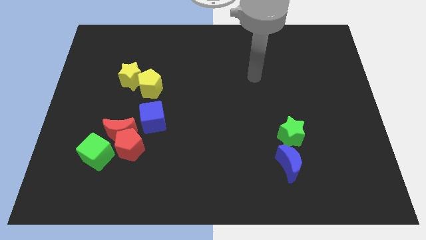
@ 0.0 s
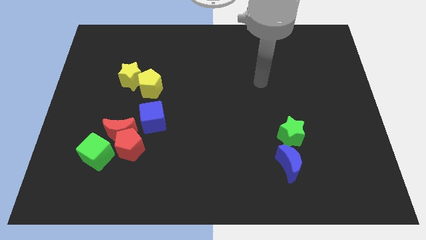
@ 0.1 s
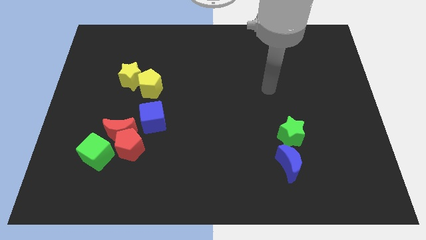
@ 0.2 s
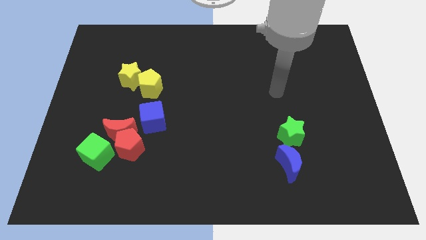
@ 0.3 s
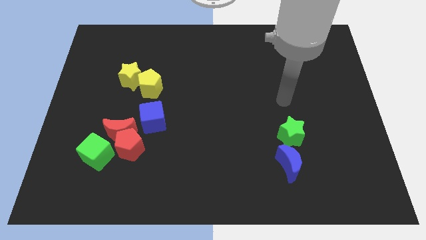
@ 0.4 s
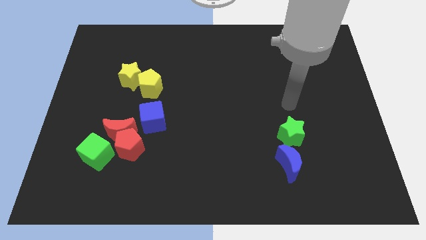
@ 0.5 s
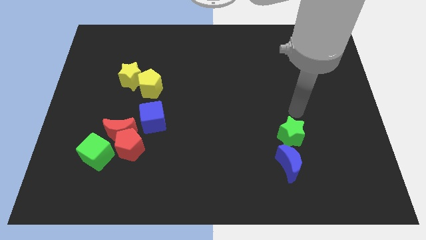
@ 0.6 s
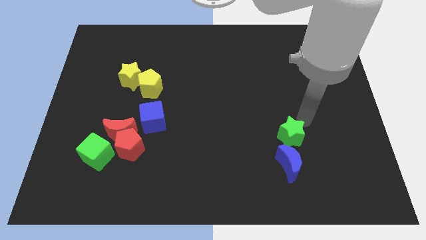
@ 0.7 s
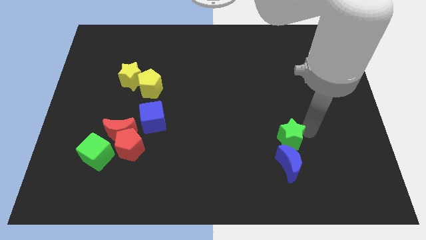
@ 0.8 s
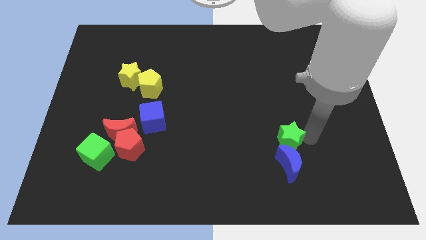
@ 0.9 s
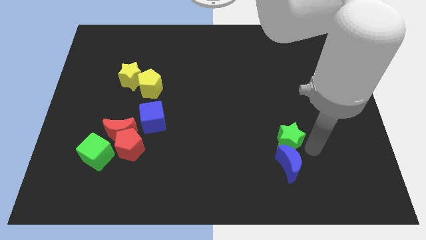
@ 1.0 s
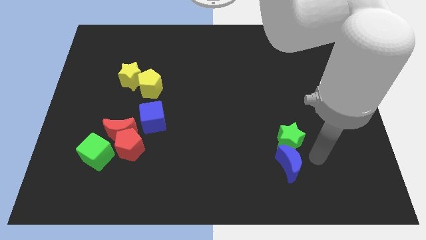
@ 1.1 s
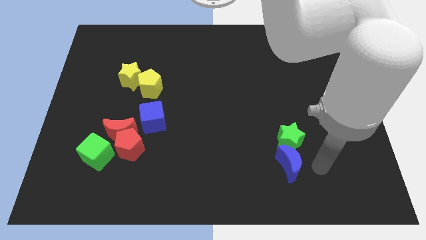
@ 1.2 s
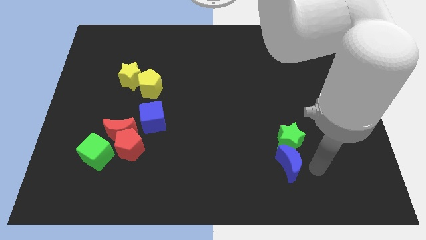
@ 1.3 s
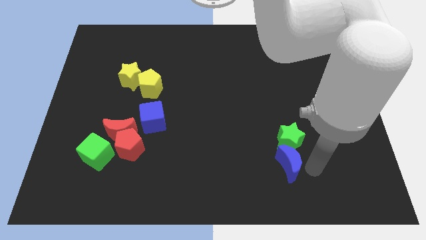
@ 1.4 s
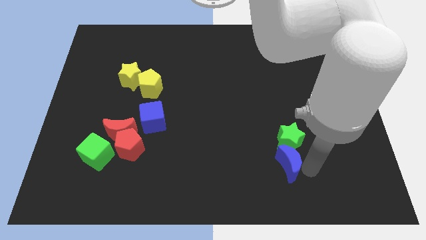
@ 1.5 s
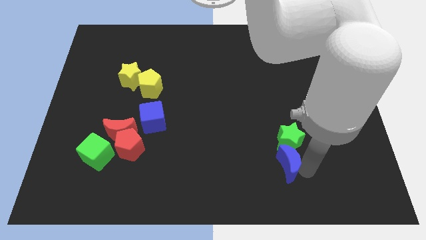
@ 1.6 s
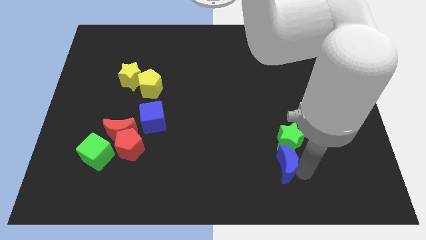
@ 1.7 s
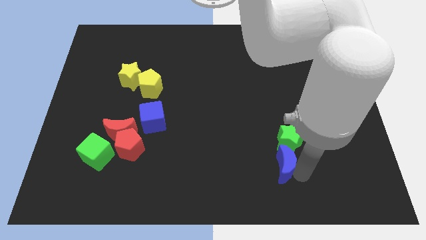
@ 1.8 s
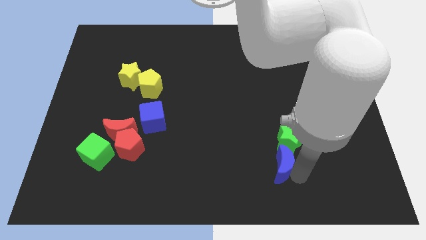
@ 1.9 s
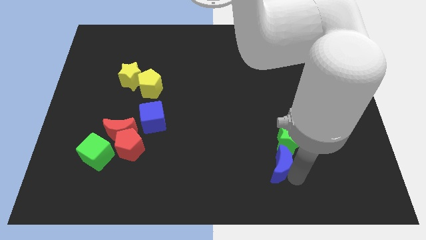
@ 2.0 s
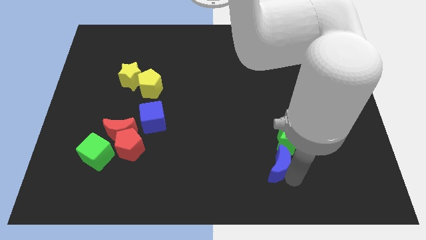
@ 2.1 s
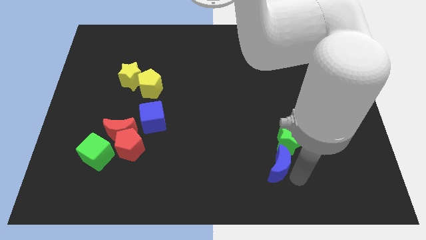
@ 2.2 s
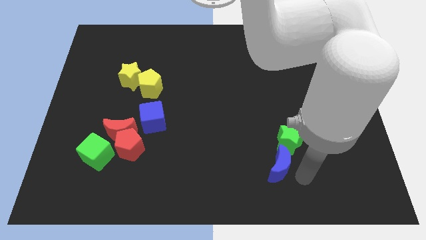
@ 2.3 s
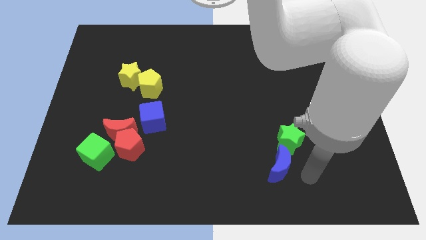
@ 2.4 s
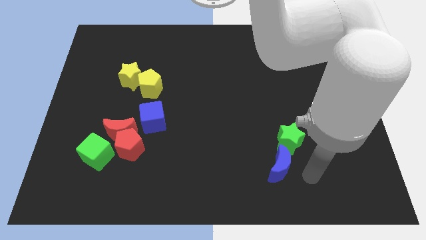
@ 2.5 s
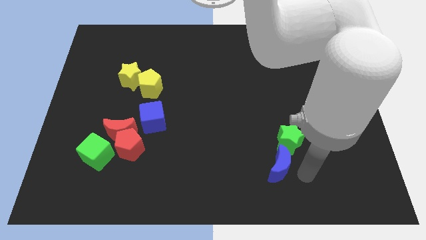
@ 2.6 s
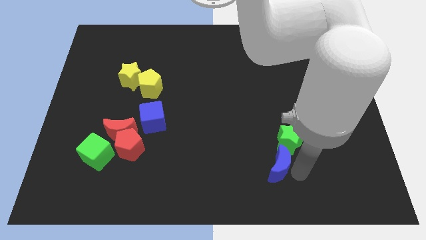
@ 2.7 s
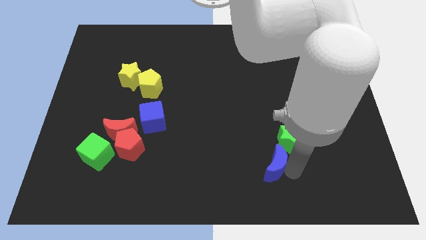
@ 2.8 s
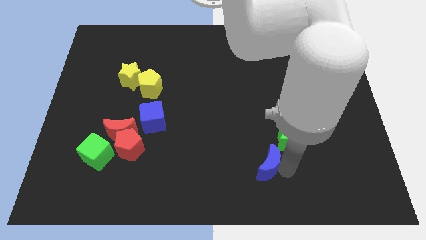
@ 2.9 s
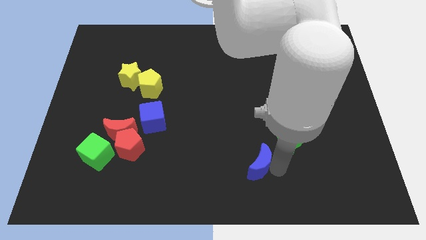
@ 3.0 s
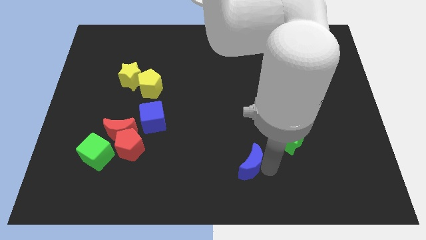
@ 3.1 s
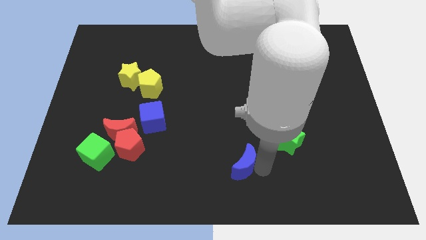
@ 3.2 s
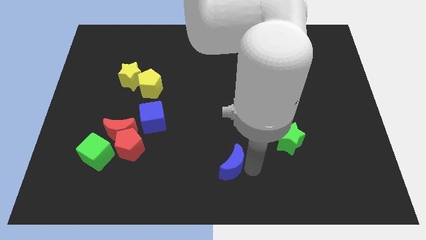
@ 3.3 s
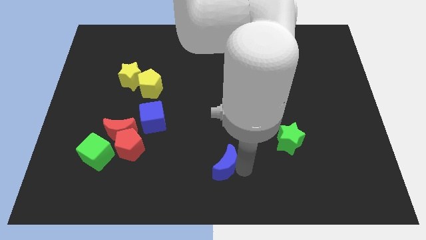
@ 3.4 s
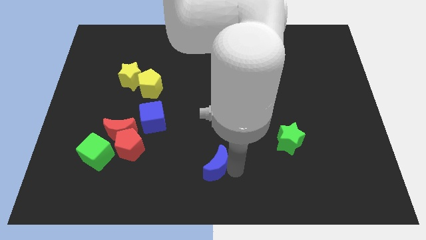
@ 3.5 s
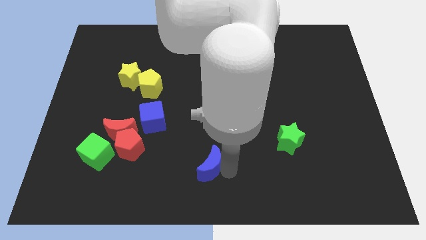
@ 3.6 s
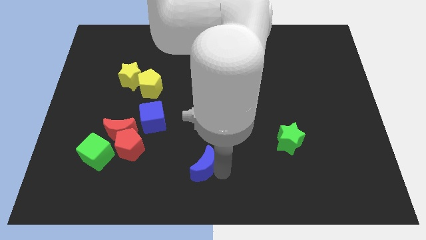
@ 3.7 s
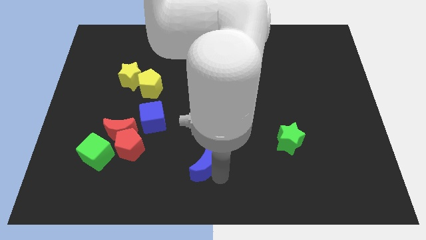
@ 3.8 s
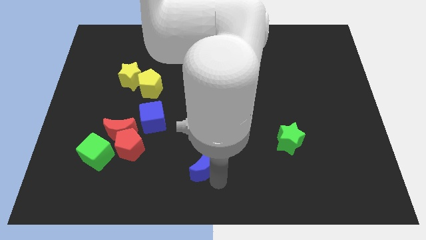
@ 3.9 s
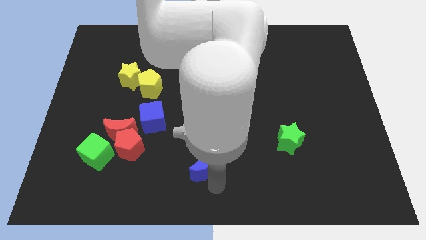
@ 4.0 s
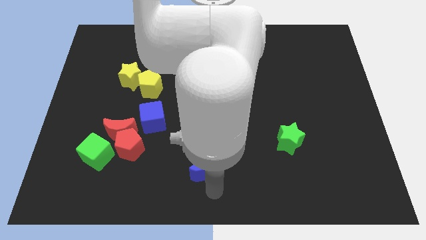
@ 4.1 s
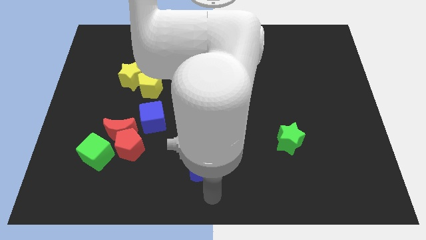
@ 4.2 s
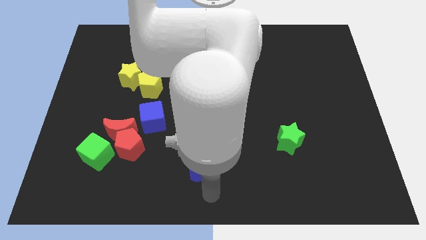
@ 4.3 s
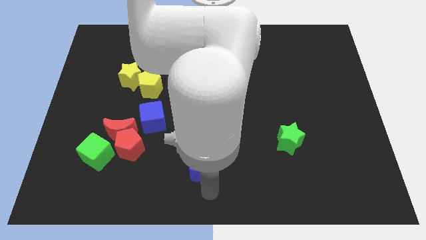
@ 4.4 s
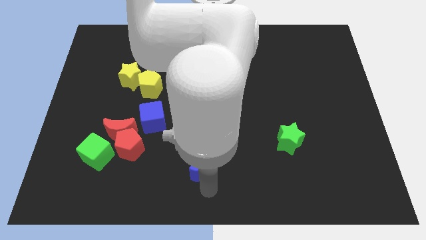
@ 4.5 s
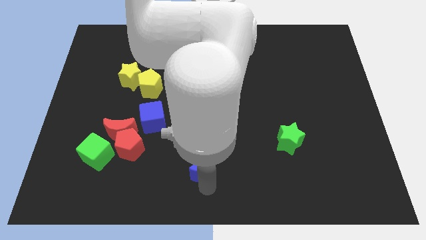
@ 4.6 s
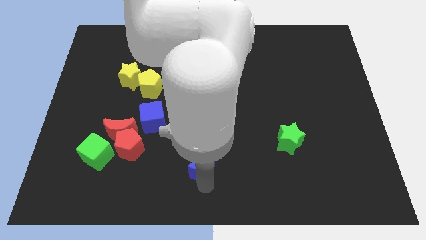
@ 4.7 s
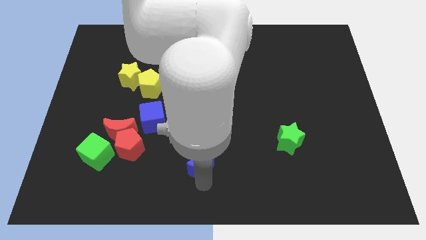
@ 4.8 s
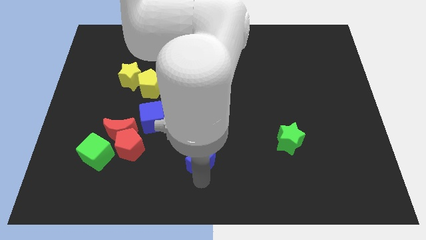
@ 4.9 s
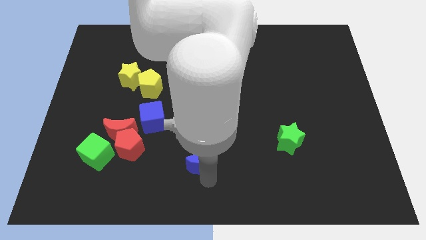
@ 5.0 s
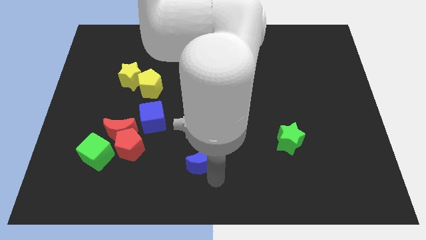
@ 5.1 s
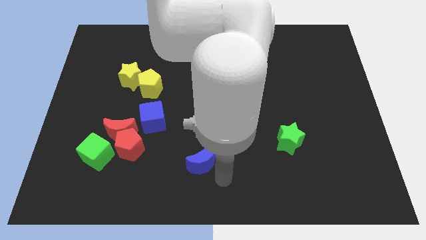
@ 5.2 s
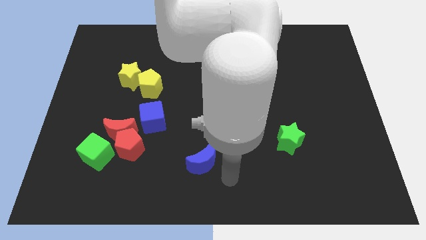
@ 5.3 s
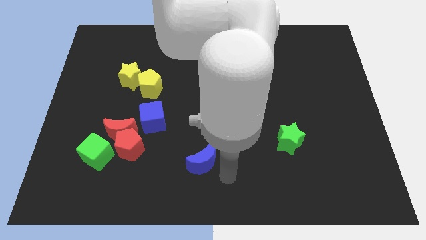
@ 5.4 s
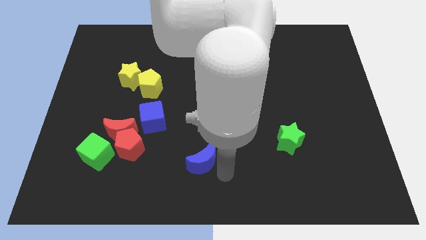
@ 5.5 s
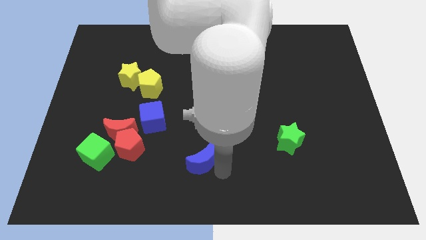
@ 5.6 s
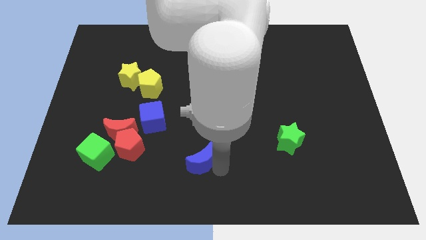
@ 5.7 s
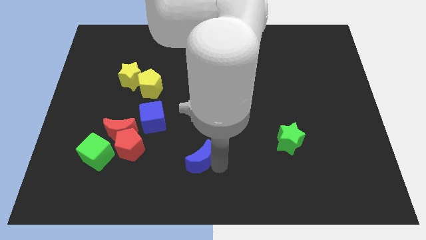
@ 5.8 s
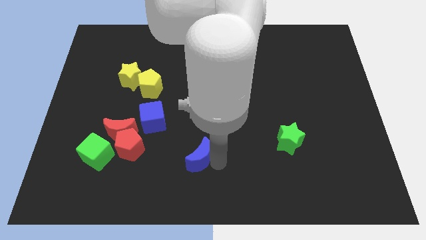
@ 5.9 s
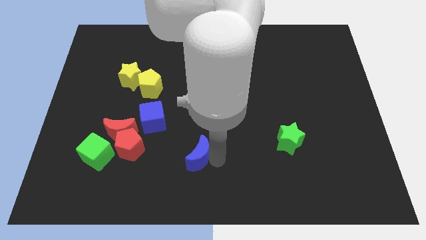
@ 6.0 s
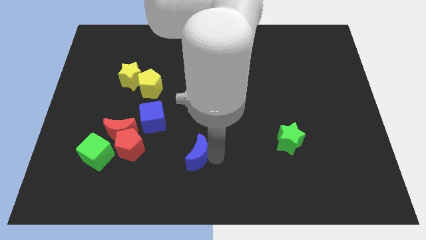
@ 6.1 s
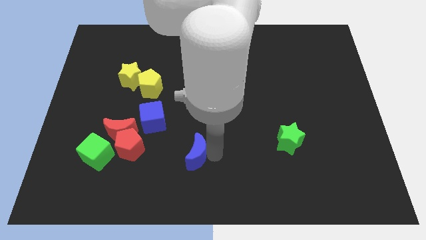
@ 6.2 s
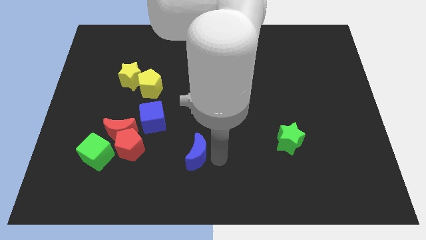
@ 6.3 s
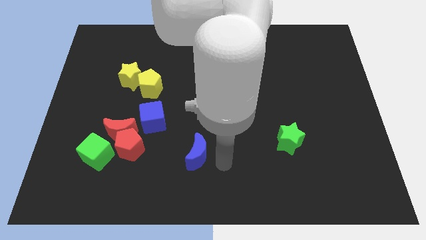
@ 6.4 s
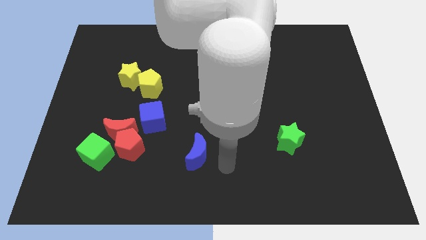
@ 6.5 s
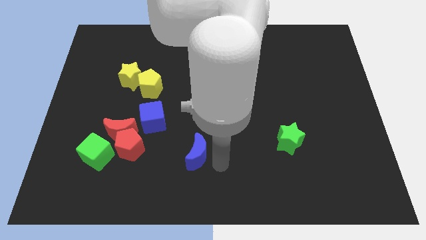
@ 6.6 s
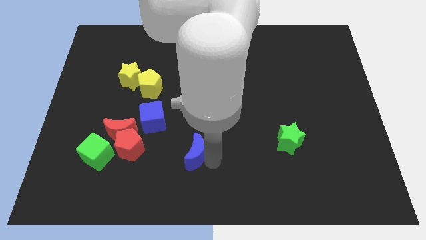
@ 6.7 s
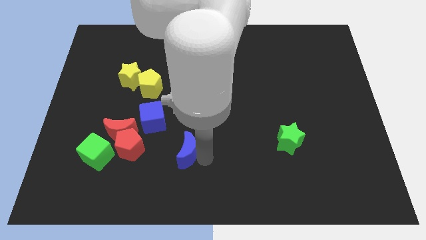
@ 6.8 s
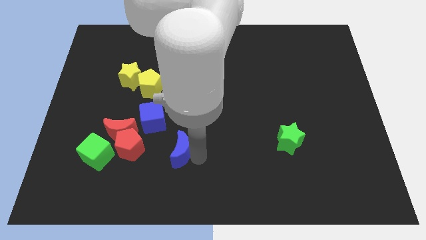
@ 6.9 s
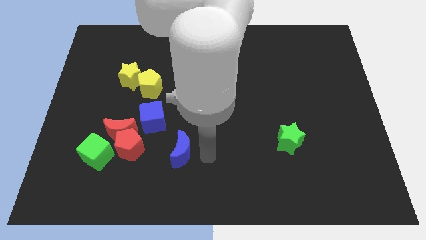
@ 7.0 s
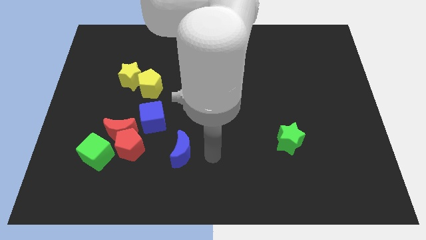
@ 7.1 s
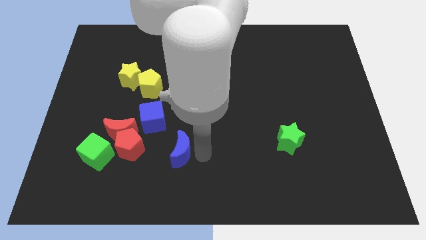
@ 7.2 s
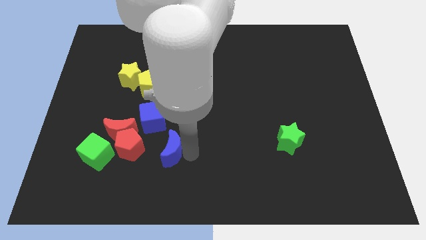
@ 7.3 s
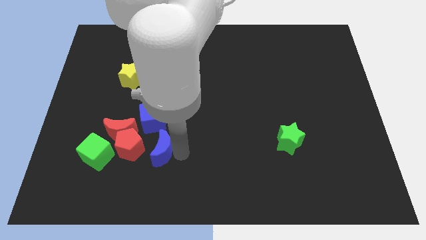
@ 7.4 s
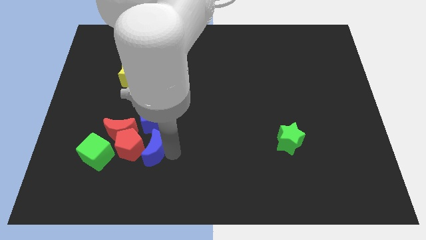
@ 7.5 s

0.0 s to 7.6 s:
move the blue moon close to the red pentagon
